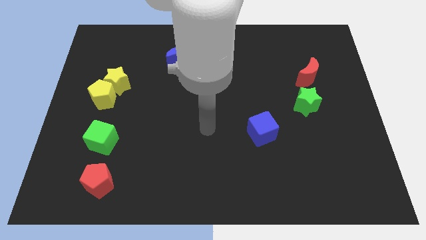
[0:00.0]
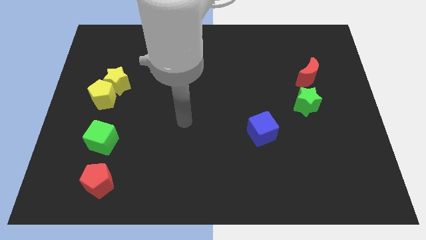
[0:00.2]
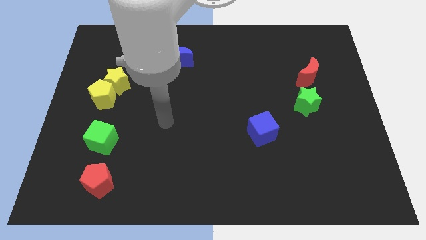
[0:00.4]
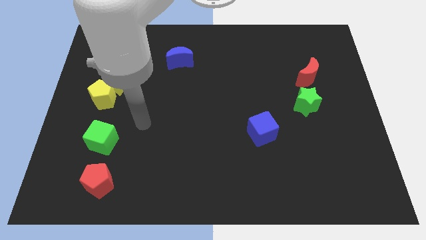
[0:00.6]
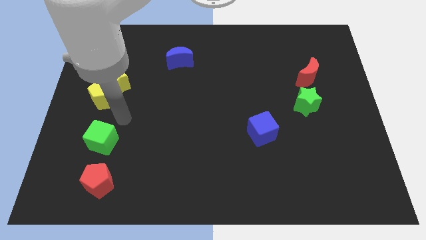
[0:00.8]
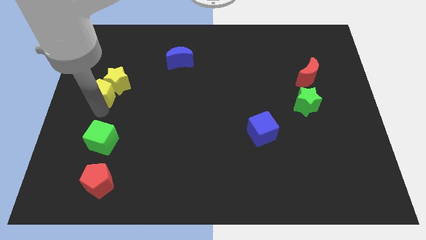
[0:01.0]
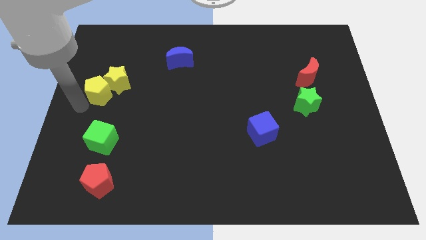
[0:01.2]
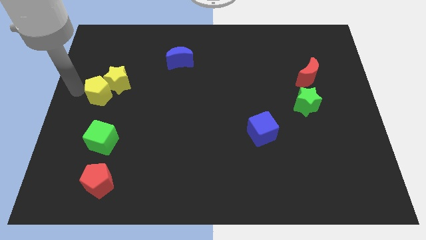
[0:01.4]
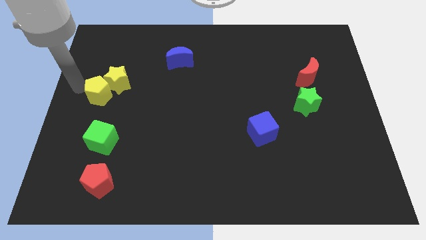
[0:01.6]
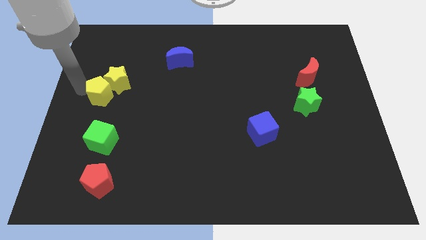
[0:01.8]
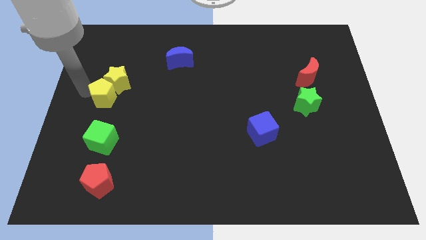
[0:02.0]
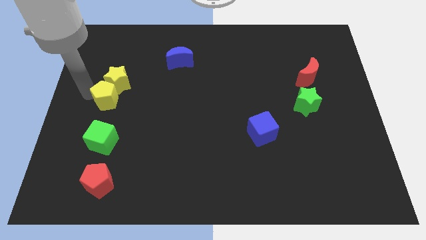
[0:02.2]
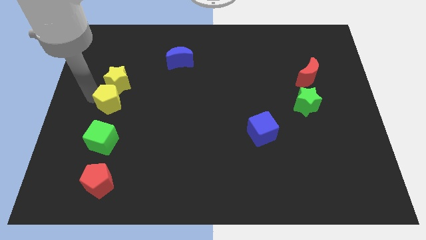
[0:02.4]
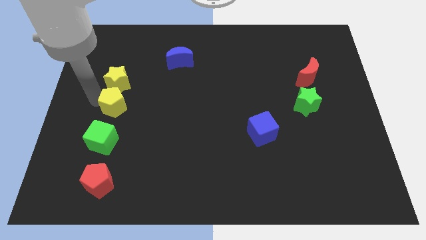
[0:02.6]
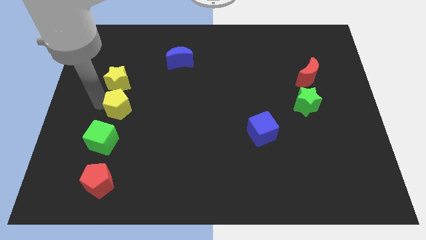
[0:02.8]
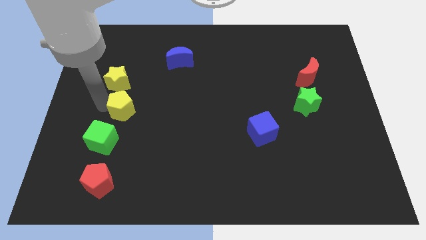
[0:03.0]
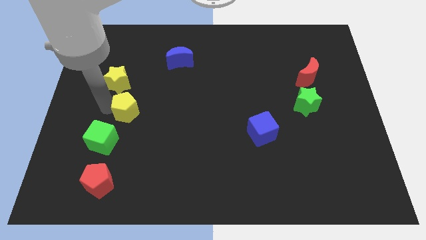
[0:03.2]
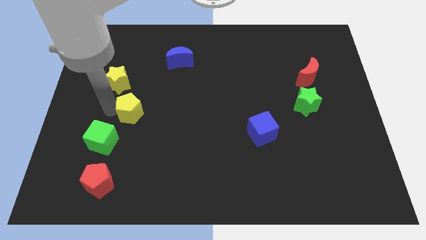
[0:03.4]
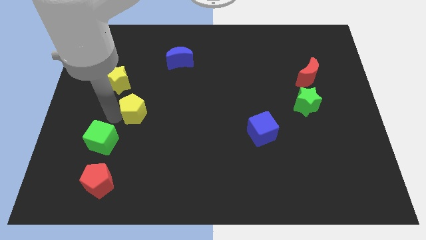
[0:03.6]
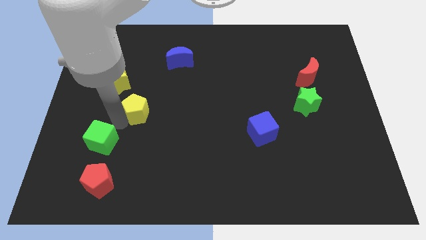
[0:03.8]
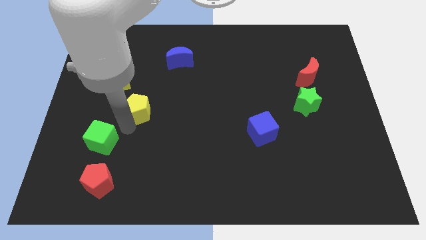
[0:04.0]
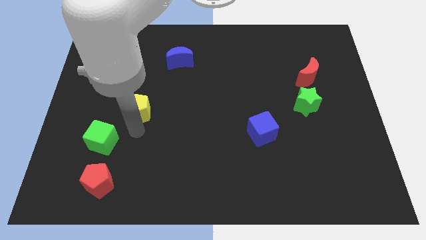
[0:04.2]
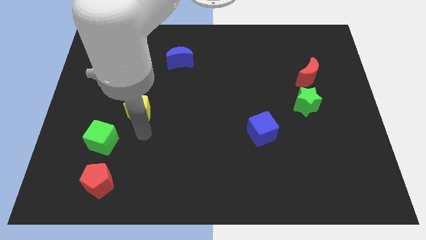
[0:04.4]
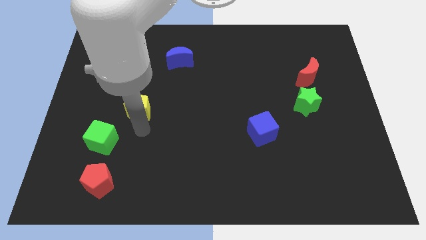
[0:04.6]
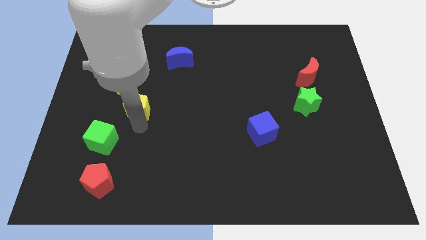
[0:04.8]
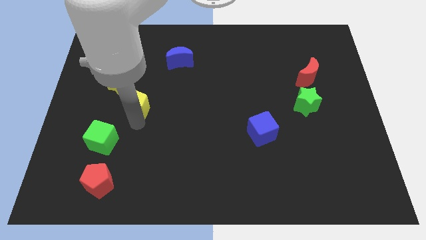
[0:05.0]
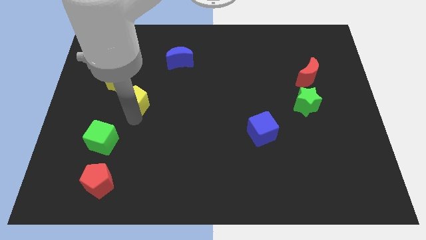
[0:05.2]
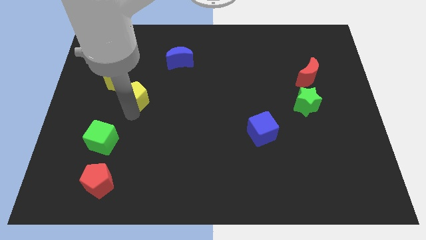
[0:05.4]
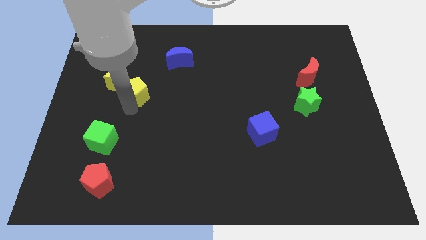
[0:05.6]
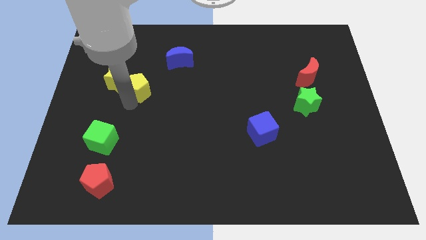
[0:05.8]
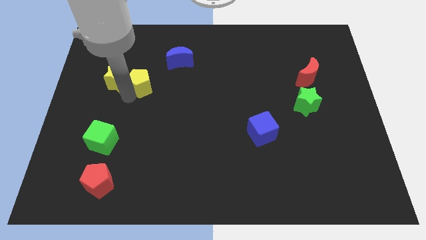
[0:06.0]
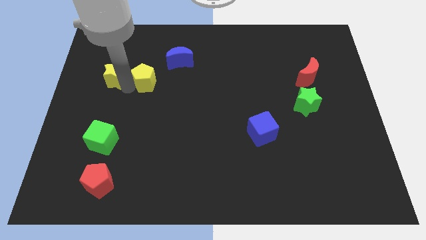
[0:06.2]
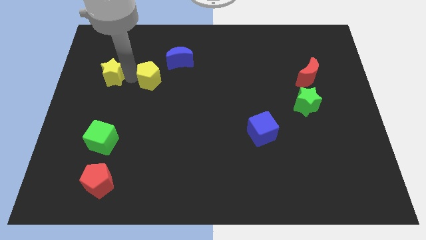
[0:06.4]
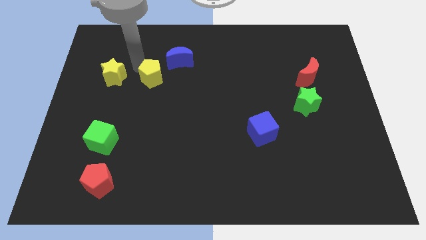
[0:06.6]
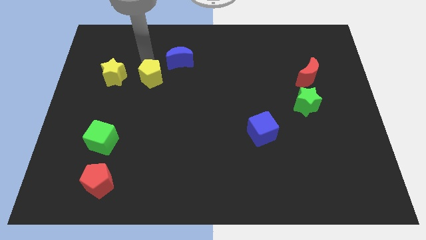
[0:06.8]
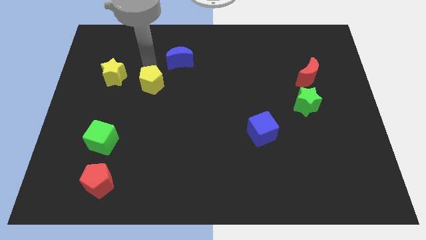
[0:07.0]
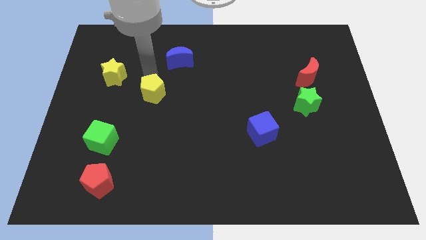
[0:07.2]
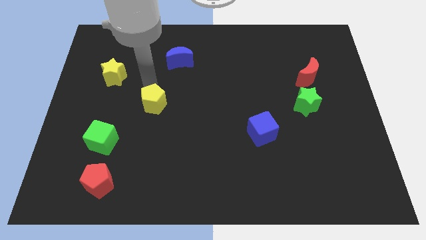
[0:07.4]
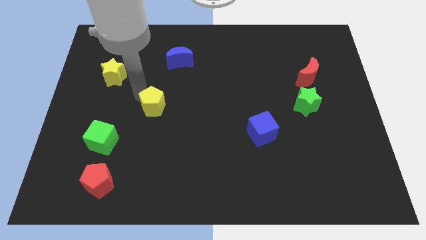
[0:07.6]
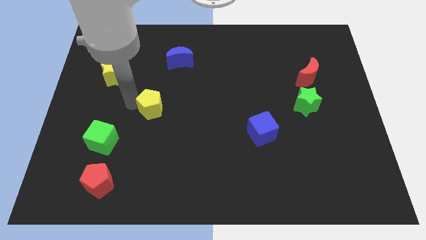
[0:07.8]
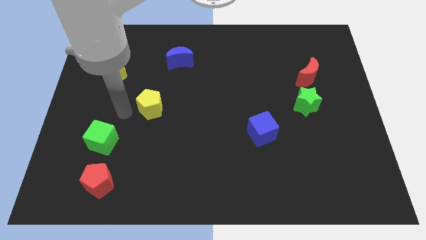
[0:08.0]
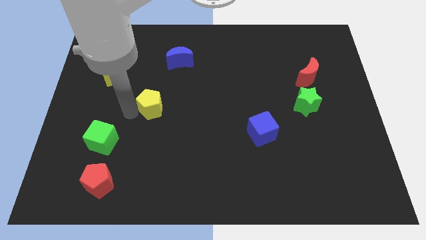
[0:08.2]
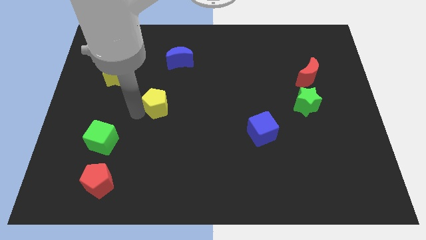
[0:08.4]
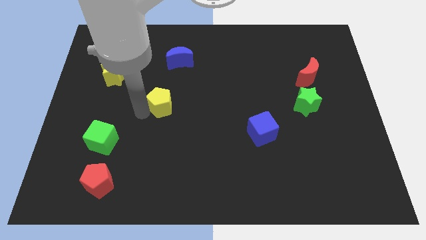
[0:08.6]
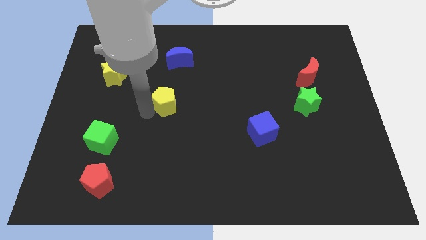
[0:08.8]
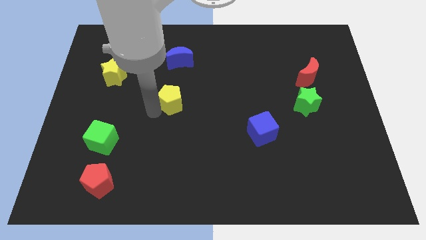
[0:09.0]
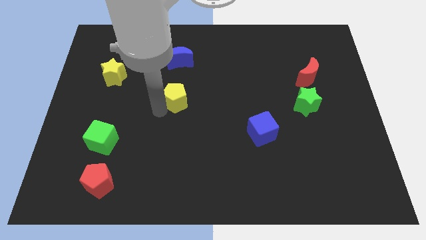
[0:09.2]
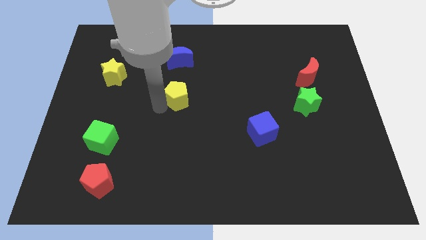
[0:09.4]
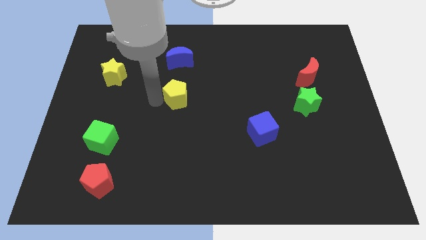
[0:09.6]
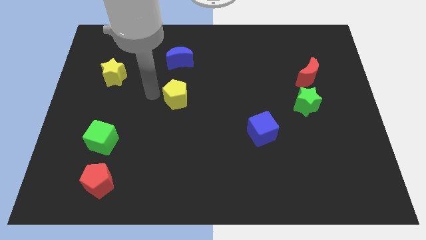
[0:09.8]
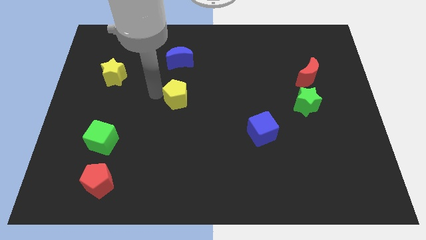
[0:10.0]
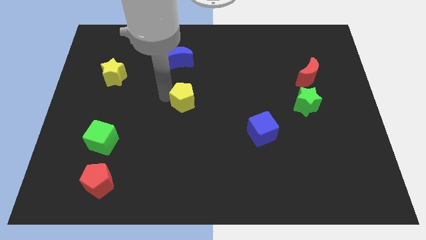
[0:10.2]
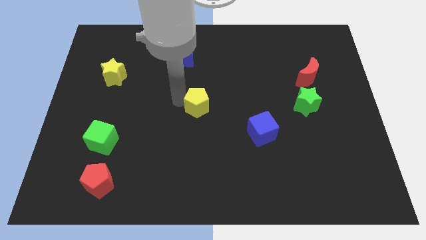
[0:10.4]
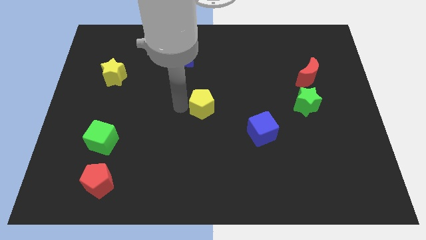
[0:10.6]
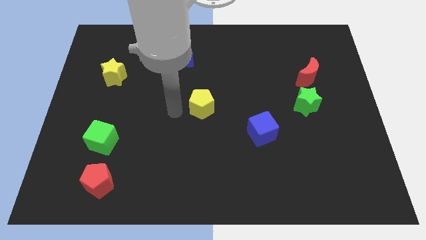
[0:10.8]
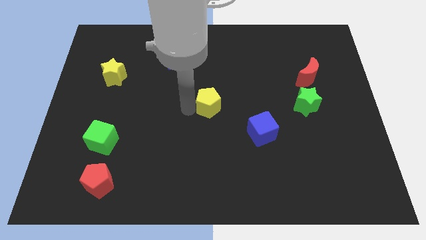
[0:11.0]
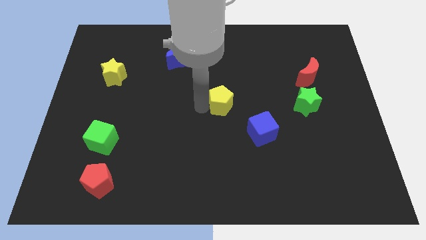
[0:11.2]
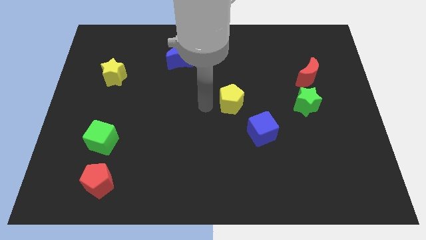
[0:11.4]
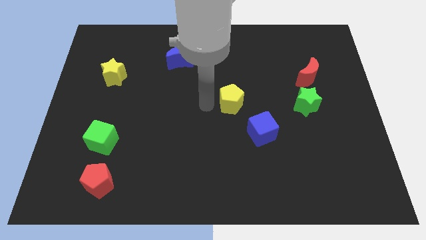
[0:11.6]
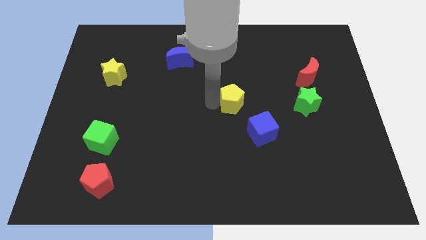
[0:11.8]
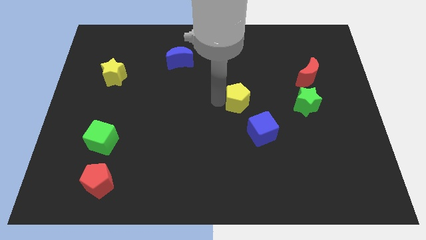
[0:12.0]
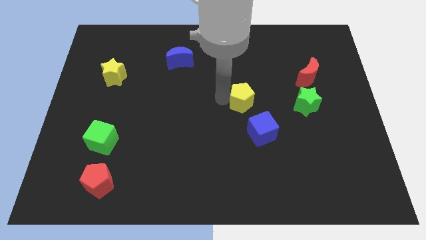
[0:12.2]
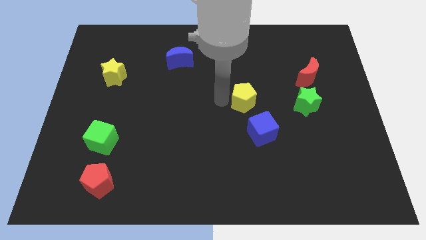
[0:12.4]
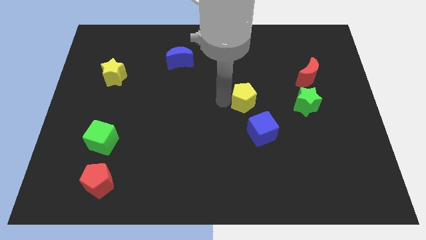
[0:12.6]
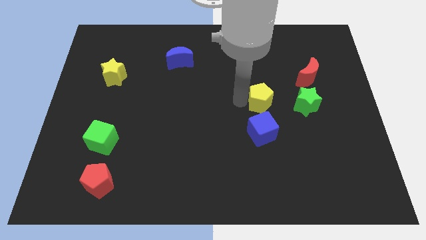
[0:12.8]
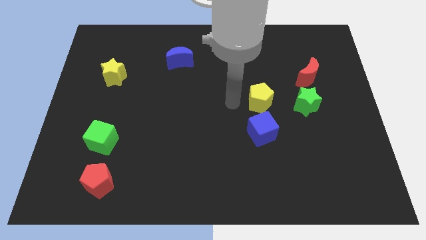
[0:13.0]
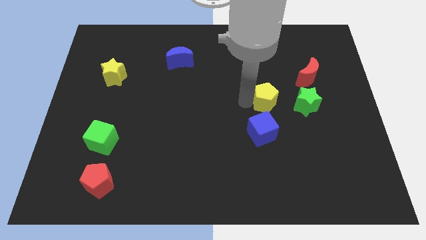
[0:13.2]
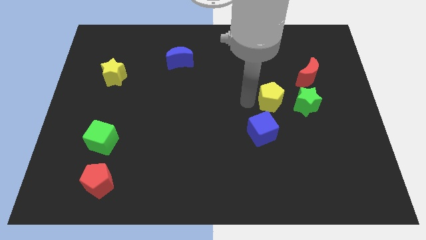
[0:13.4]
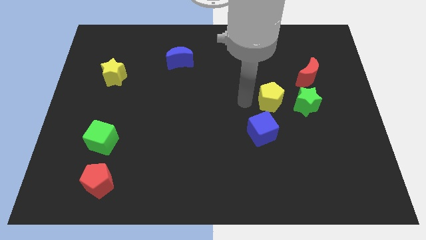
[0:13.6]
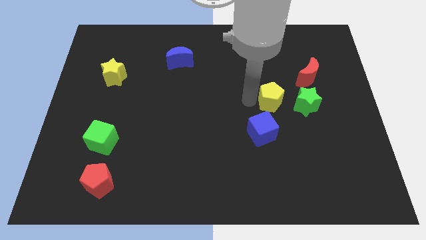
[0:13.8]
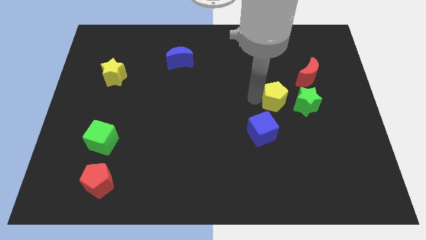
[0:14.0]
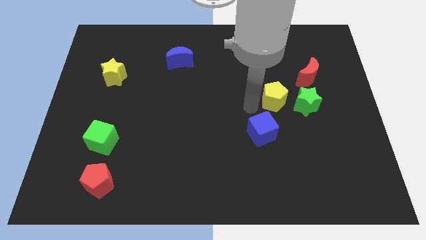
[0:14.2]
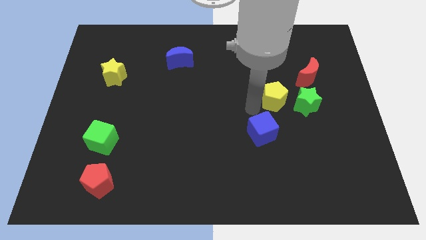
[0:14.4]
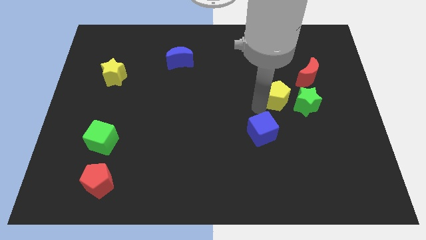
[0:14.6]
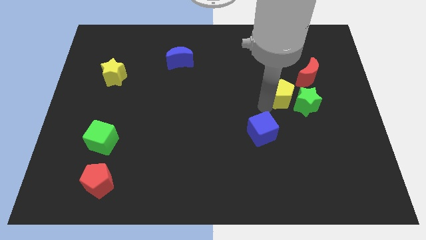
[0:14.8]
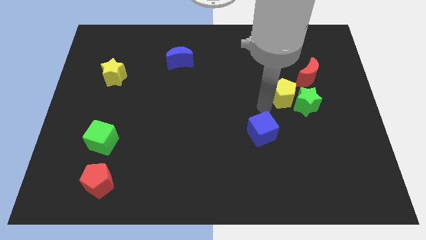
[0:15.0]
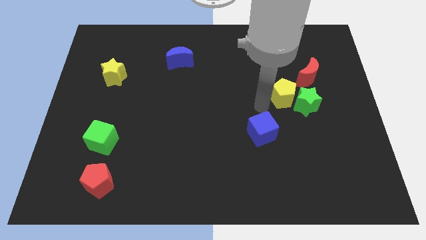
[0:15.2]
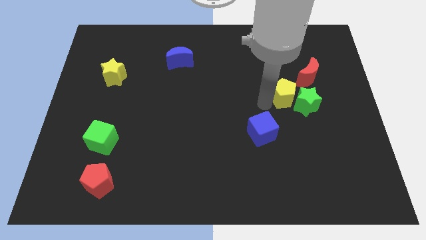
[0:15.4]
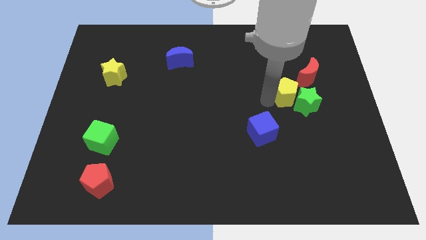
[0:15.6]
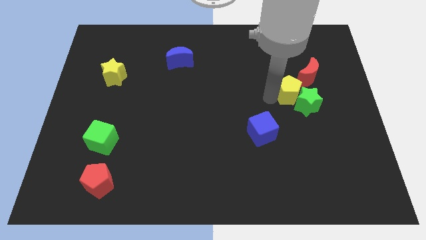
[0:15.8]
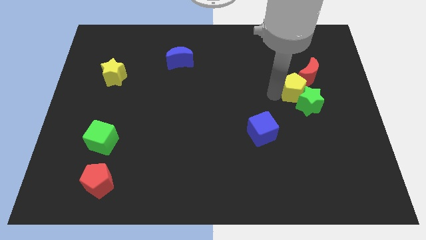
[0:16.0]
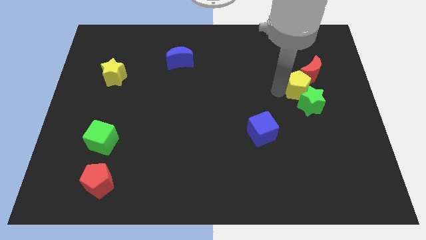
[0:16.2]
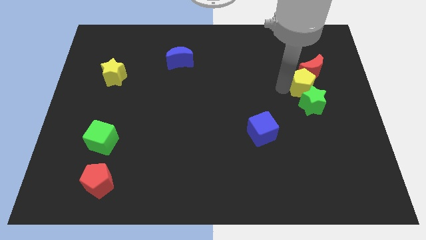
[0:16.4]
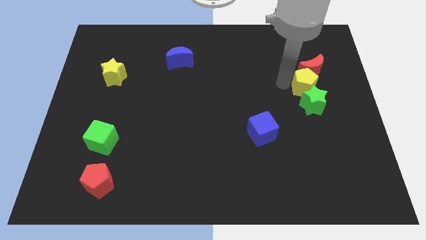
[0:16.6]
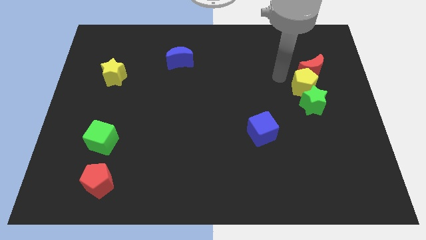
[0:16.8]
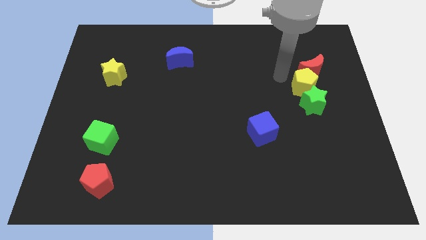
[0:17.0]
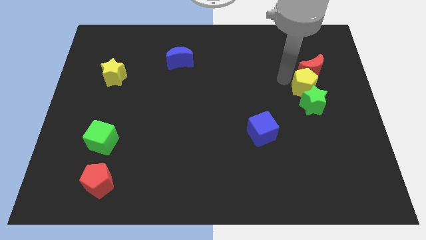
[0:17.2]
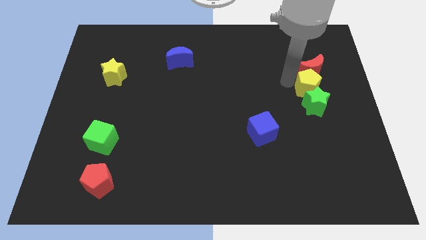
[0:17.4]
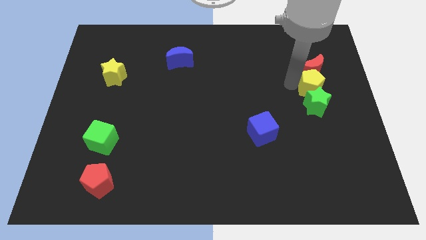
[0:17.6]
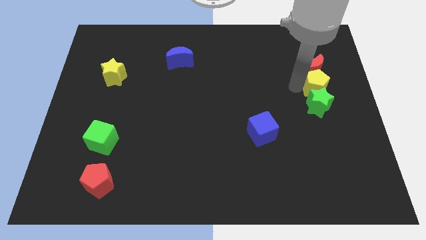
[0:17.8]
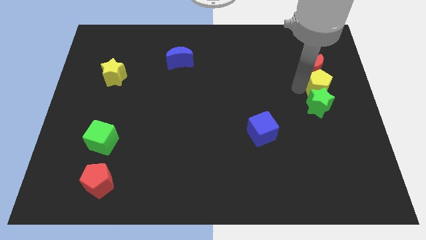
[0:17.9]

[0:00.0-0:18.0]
move the yellow pentagon to the center right
